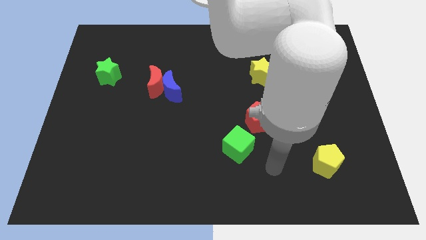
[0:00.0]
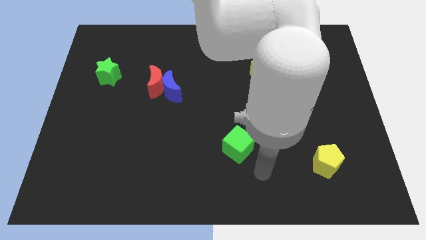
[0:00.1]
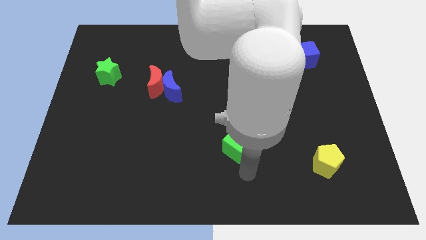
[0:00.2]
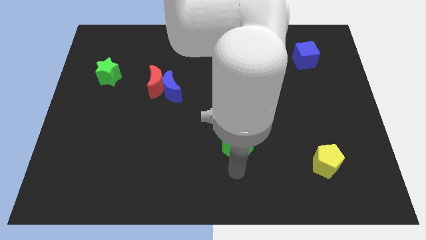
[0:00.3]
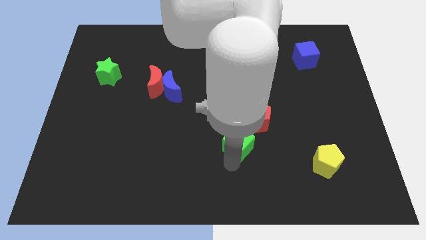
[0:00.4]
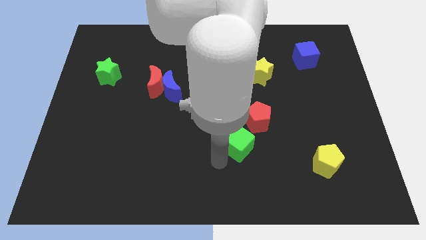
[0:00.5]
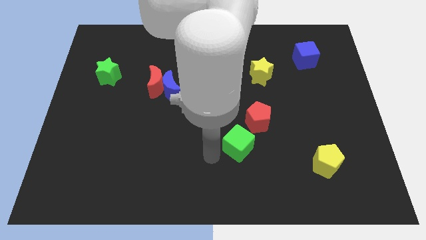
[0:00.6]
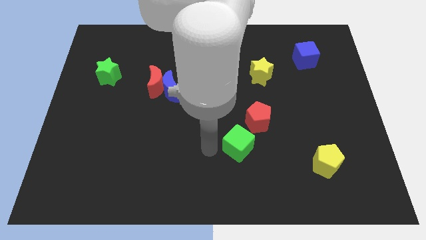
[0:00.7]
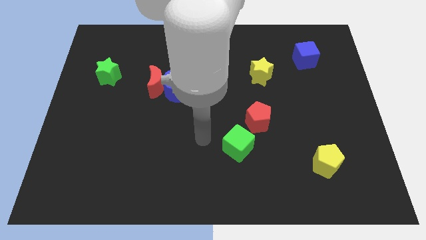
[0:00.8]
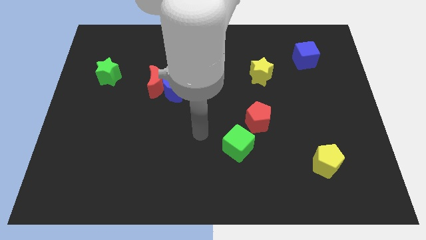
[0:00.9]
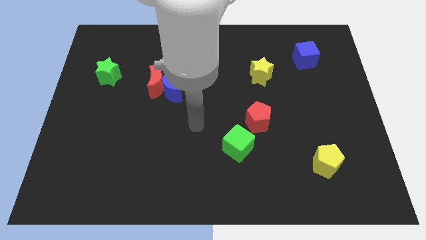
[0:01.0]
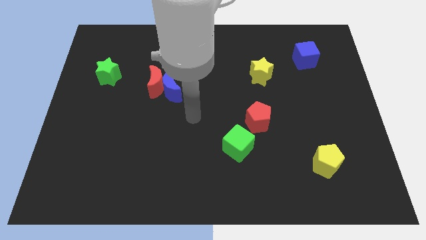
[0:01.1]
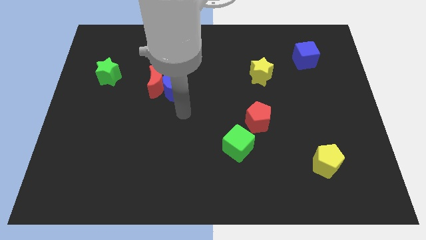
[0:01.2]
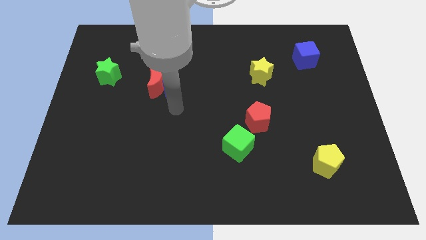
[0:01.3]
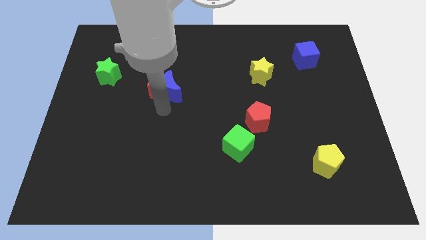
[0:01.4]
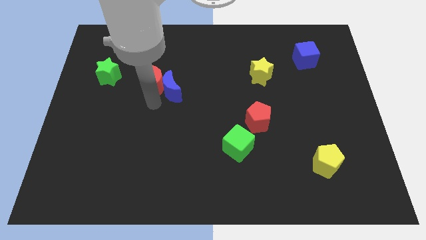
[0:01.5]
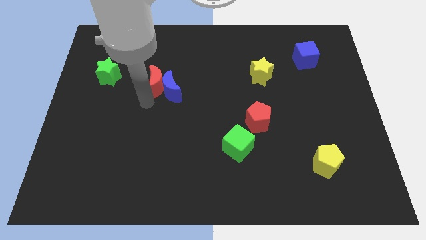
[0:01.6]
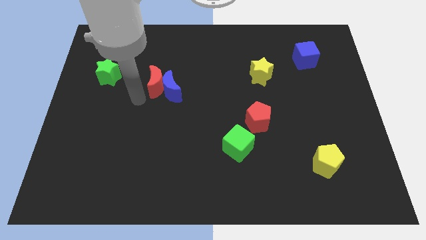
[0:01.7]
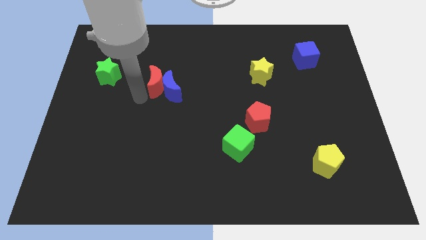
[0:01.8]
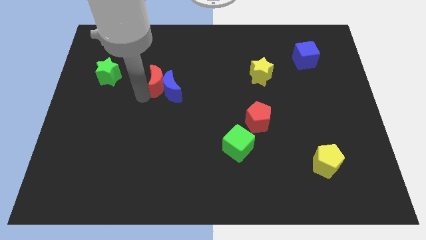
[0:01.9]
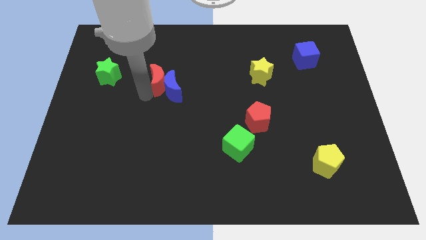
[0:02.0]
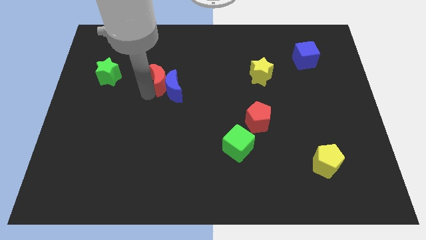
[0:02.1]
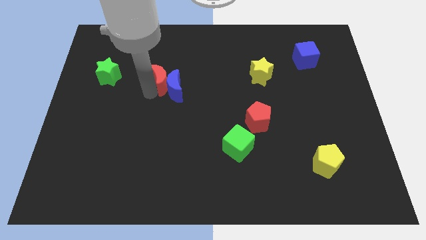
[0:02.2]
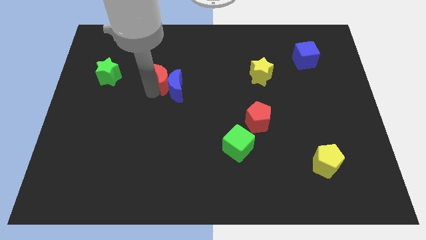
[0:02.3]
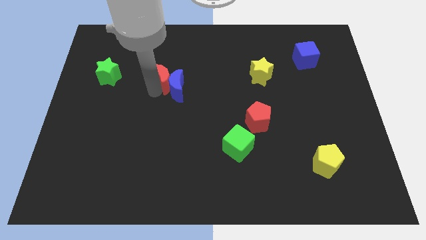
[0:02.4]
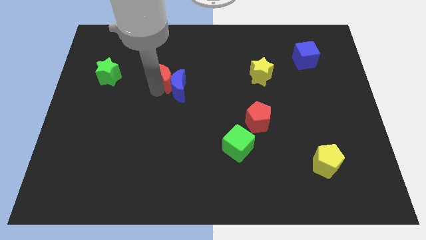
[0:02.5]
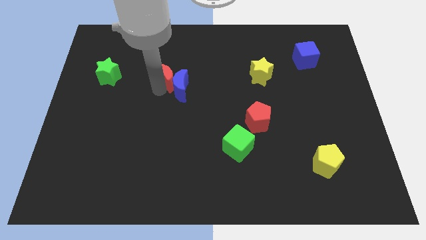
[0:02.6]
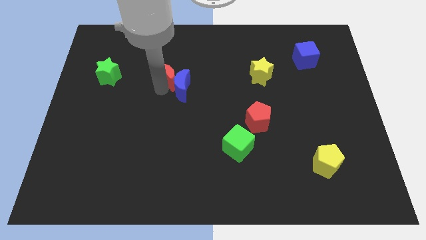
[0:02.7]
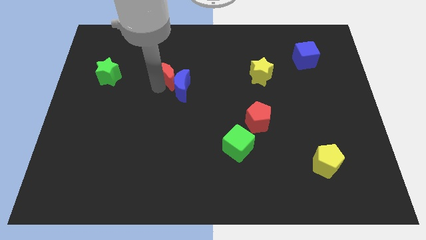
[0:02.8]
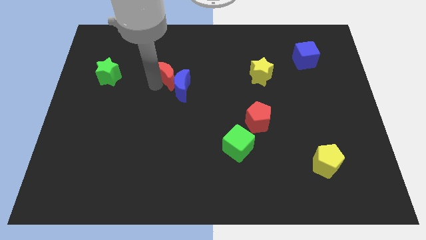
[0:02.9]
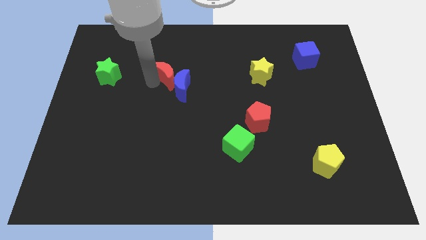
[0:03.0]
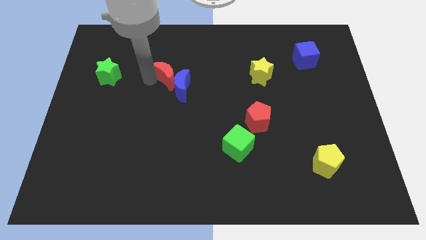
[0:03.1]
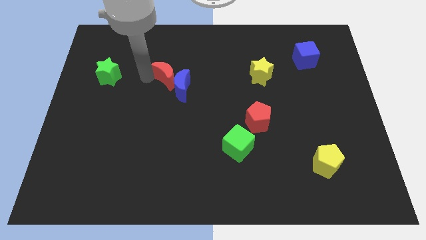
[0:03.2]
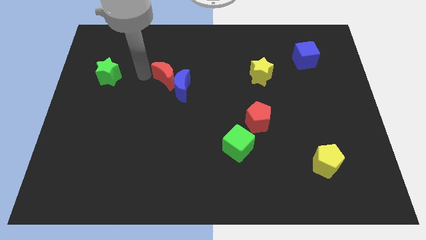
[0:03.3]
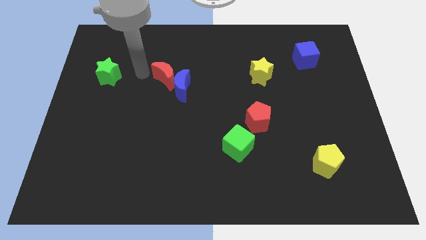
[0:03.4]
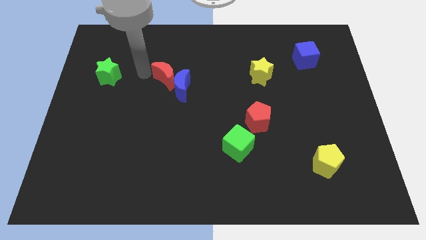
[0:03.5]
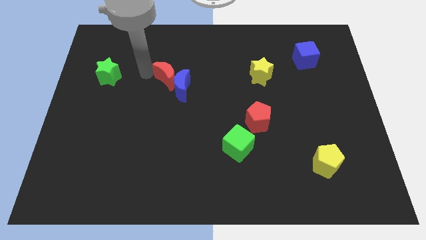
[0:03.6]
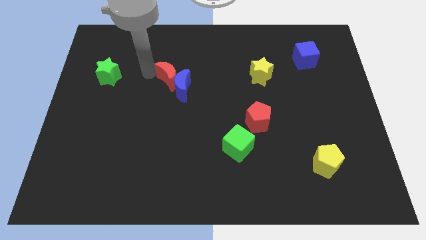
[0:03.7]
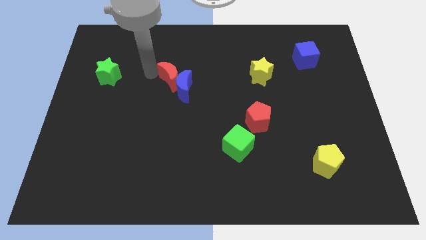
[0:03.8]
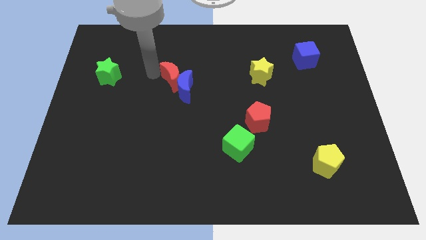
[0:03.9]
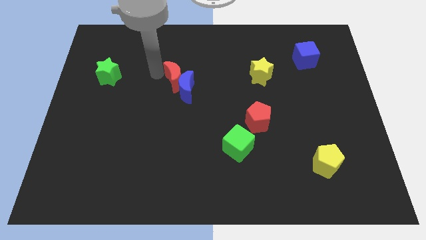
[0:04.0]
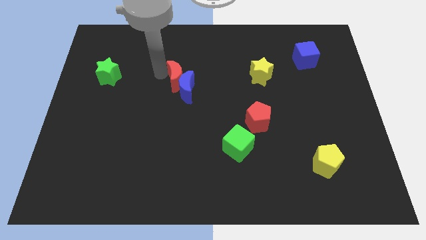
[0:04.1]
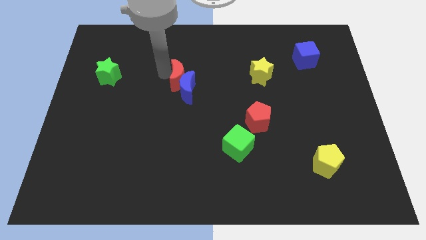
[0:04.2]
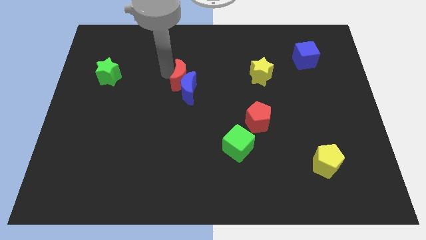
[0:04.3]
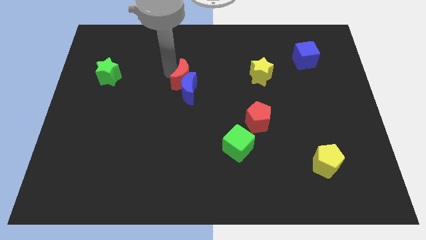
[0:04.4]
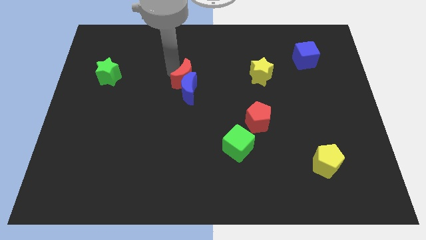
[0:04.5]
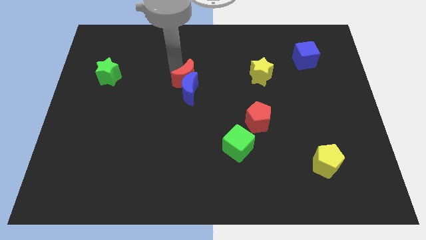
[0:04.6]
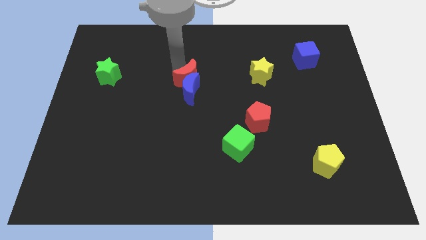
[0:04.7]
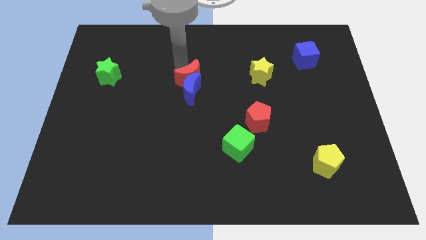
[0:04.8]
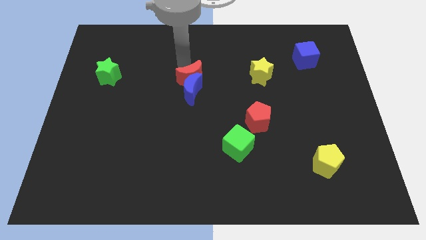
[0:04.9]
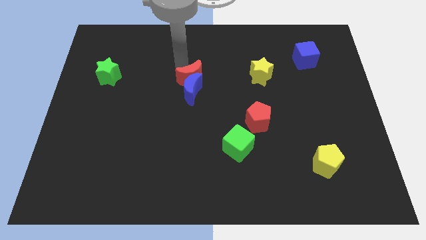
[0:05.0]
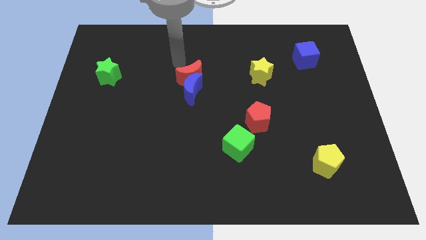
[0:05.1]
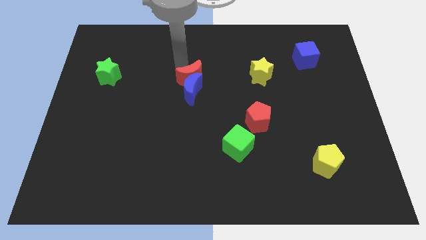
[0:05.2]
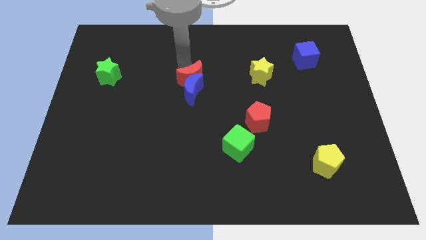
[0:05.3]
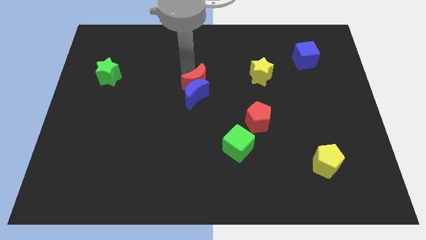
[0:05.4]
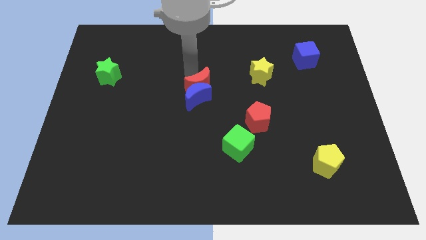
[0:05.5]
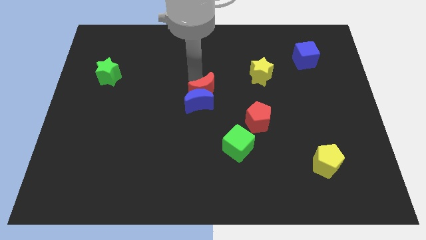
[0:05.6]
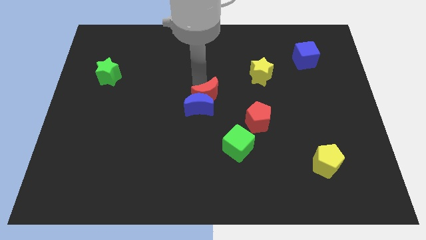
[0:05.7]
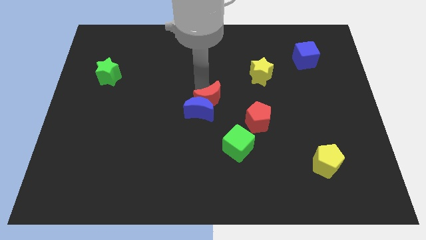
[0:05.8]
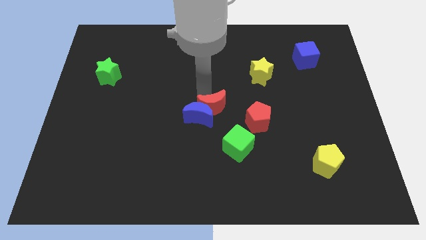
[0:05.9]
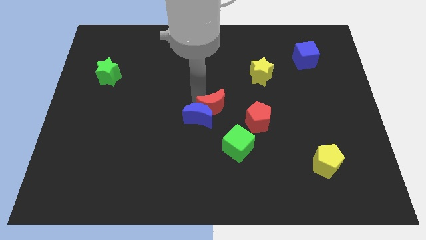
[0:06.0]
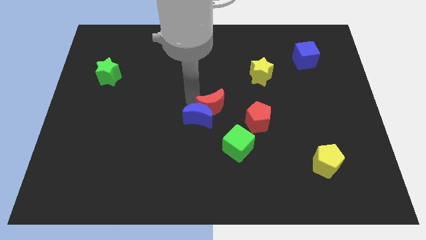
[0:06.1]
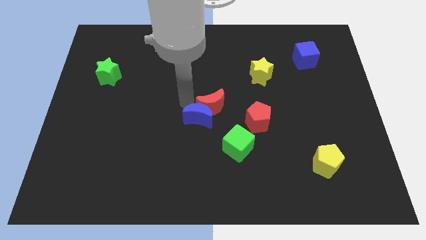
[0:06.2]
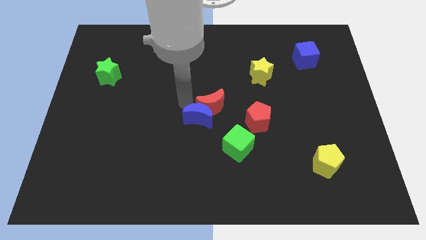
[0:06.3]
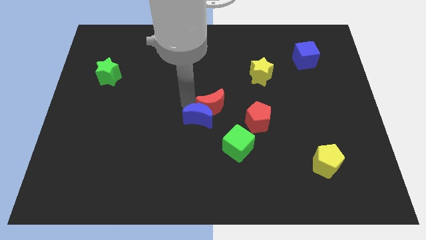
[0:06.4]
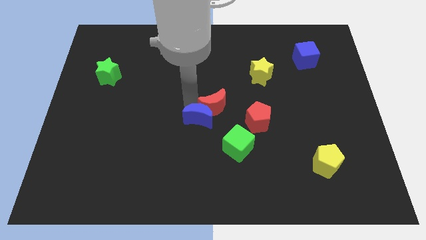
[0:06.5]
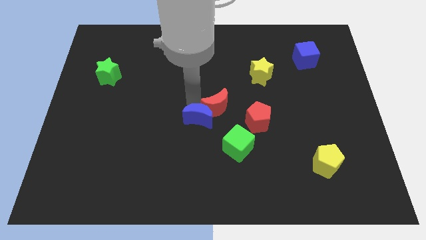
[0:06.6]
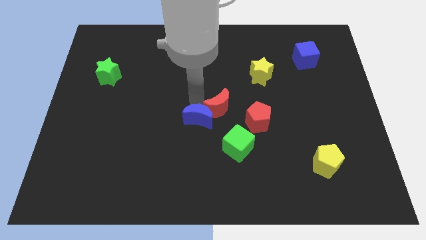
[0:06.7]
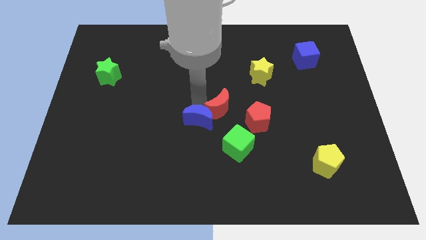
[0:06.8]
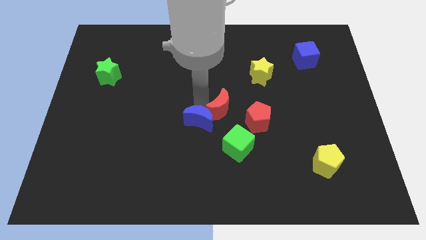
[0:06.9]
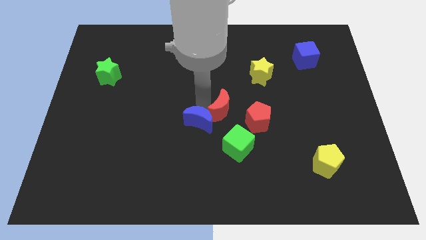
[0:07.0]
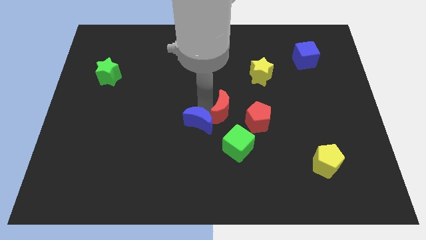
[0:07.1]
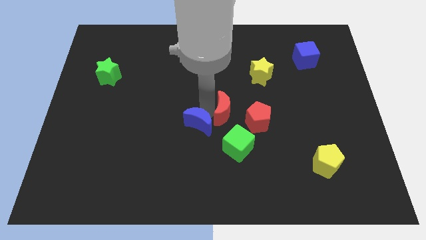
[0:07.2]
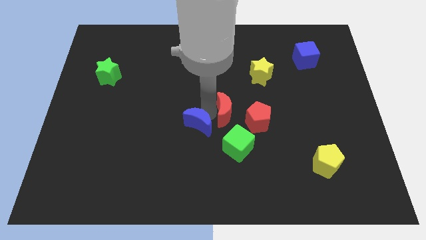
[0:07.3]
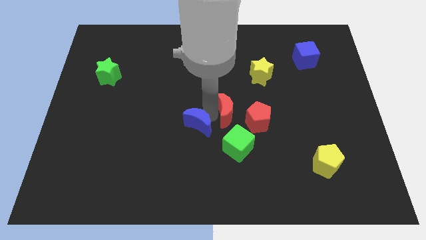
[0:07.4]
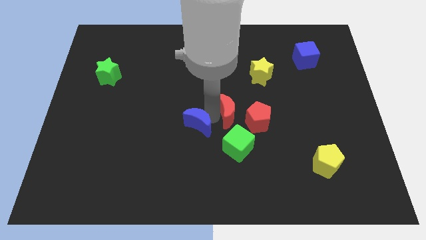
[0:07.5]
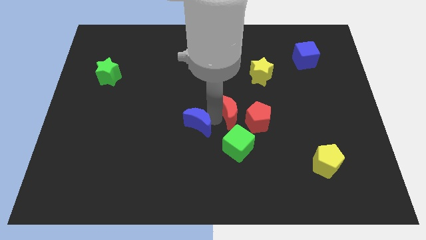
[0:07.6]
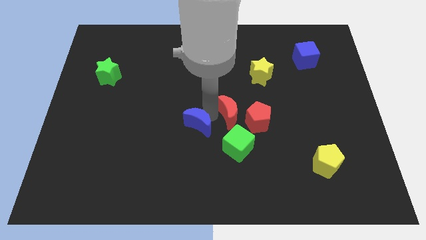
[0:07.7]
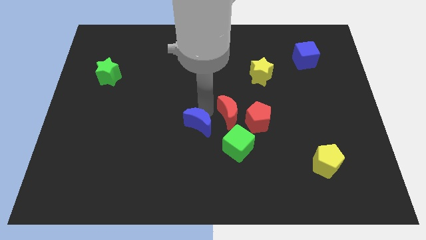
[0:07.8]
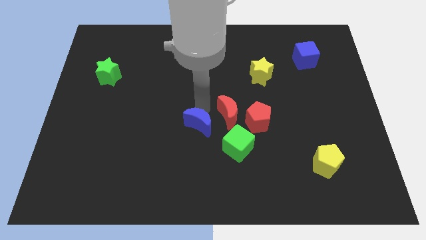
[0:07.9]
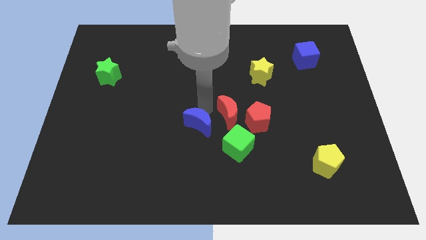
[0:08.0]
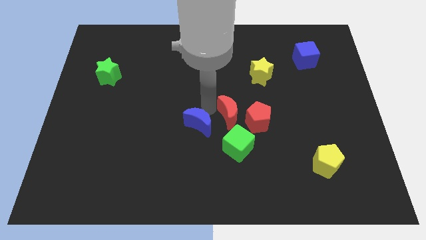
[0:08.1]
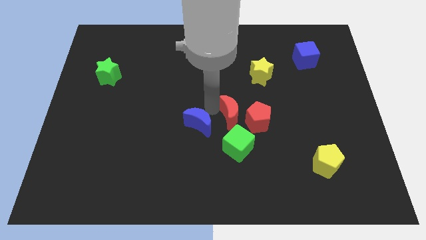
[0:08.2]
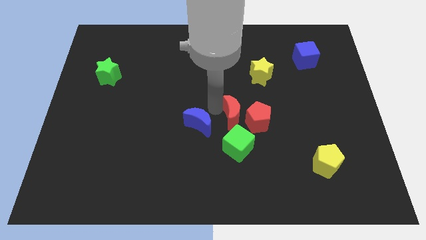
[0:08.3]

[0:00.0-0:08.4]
move the red moon to the red pentagon
